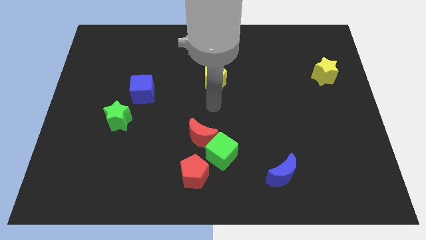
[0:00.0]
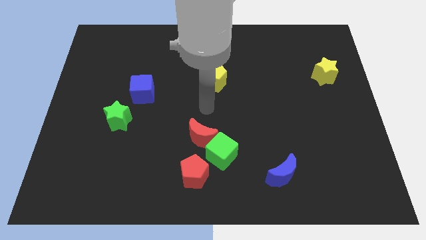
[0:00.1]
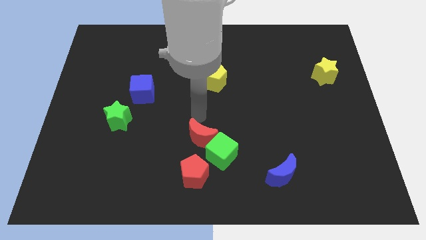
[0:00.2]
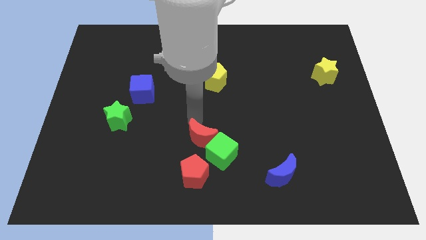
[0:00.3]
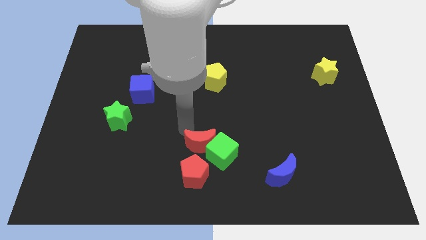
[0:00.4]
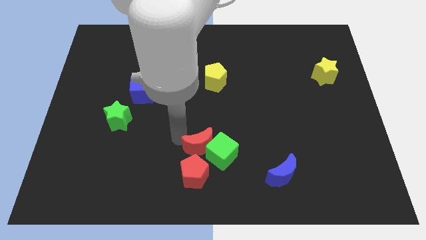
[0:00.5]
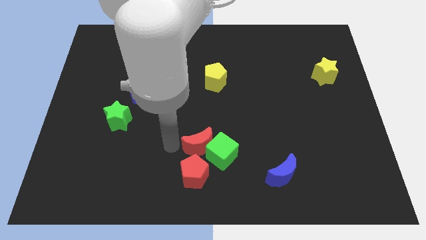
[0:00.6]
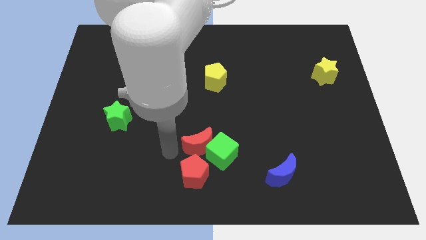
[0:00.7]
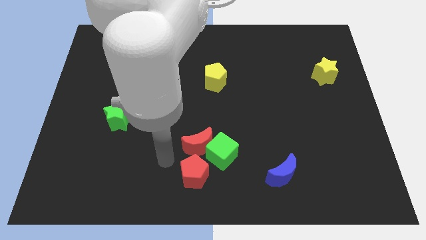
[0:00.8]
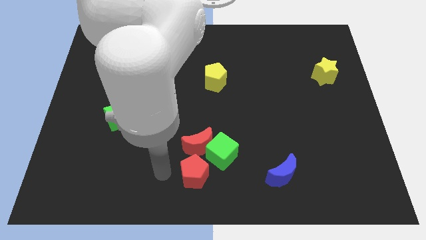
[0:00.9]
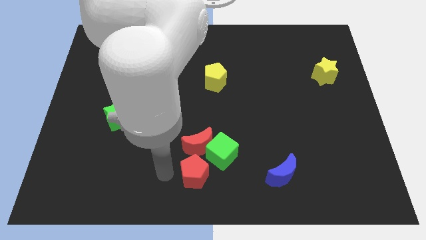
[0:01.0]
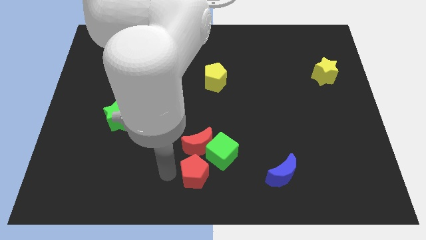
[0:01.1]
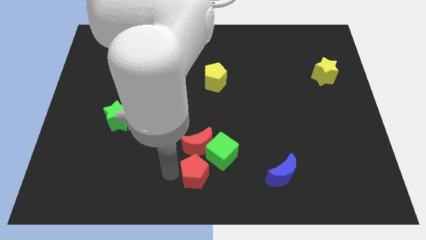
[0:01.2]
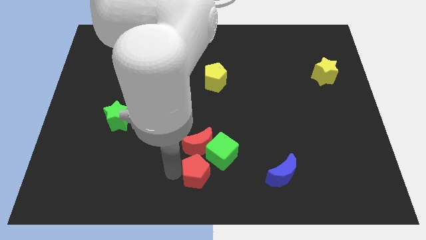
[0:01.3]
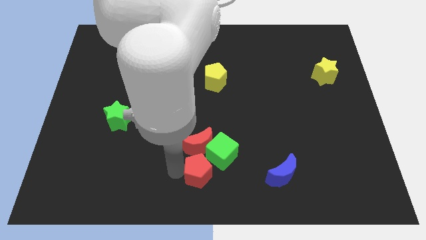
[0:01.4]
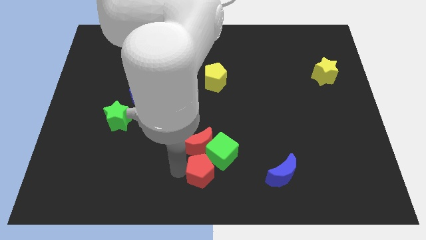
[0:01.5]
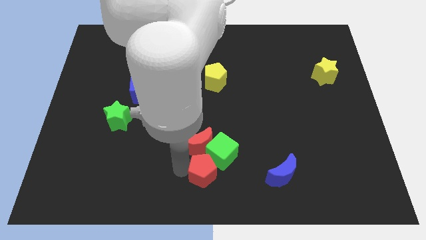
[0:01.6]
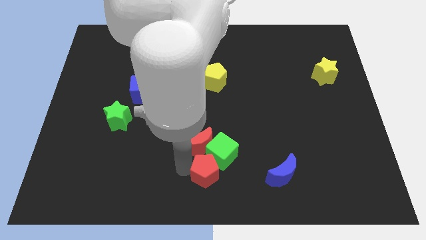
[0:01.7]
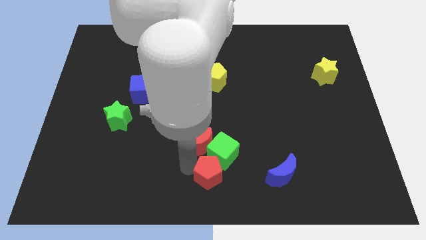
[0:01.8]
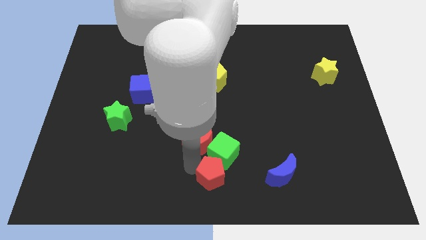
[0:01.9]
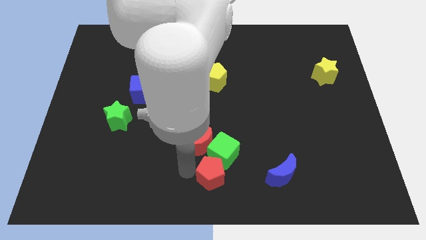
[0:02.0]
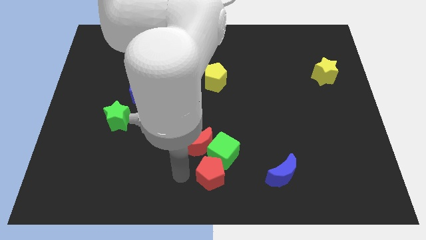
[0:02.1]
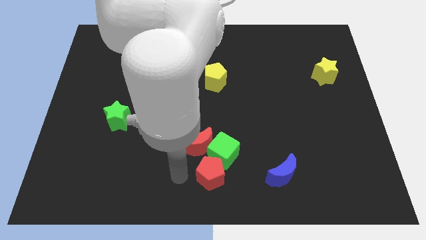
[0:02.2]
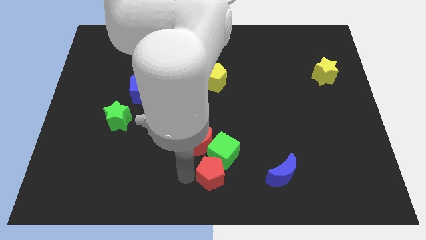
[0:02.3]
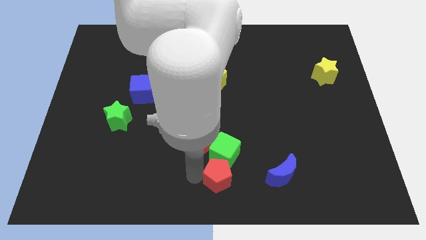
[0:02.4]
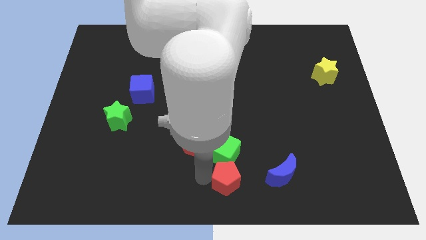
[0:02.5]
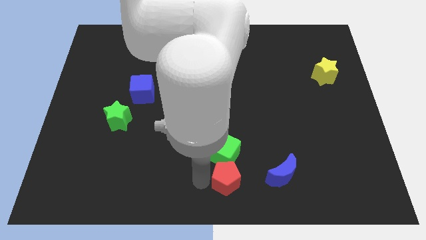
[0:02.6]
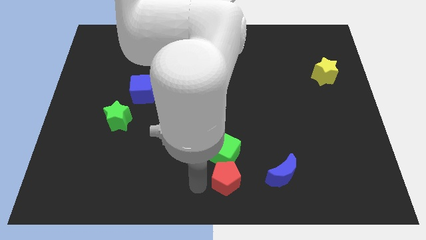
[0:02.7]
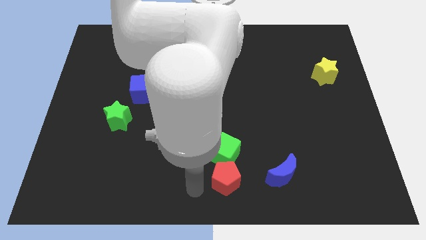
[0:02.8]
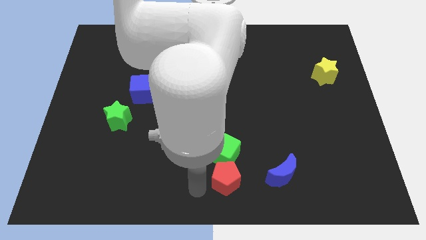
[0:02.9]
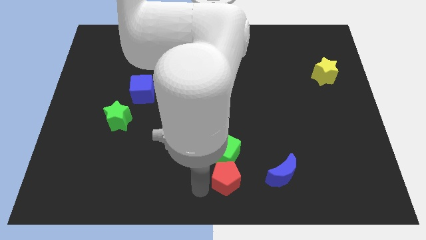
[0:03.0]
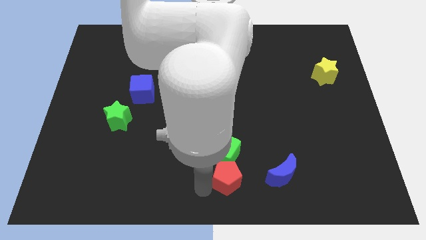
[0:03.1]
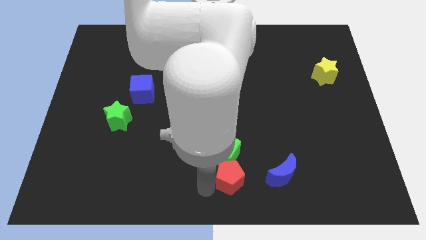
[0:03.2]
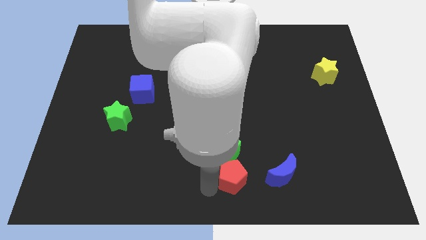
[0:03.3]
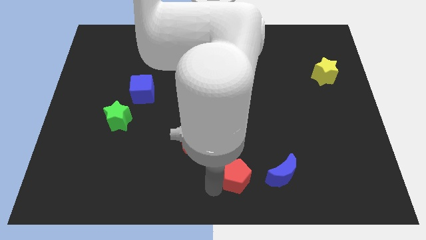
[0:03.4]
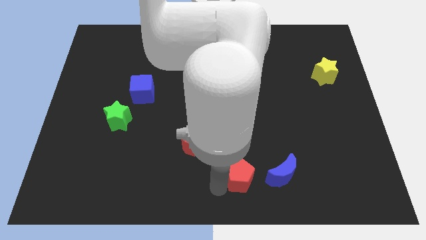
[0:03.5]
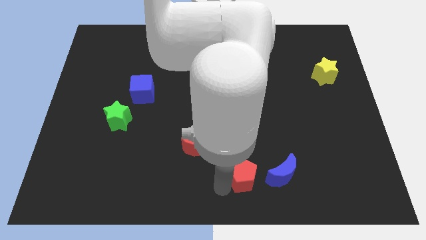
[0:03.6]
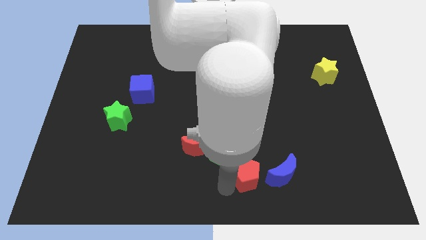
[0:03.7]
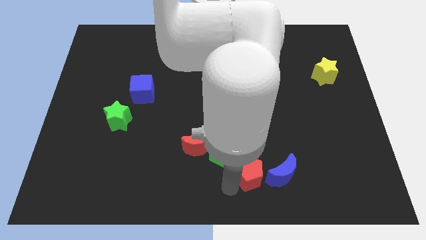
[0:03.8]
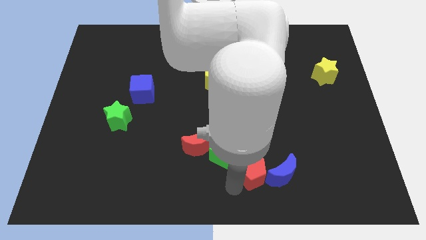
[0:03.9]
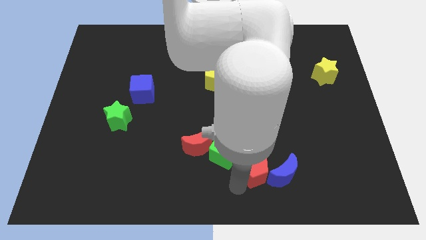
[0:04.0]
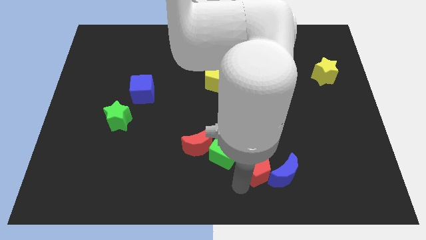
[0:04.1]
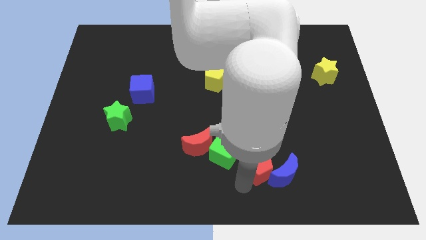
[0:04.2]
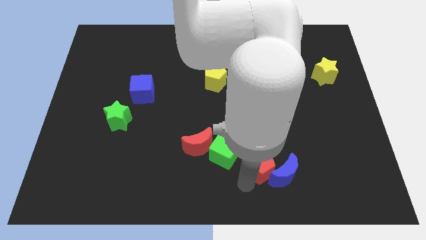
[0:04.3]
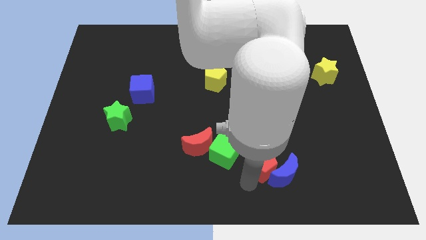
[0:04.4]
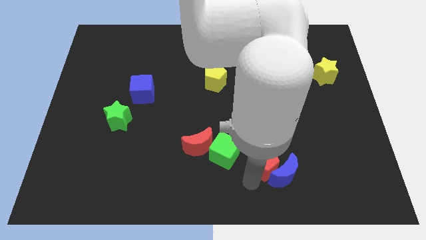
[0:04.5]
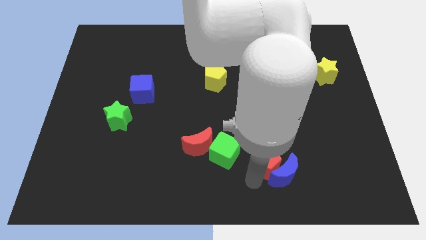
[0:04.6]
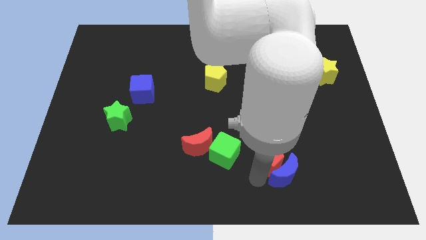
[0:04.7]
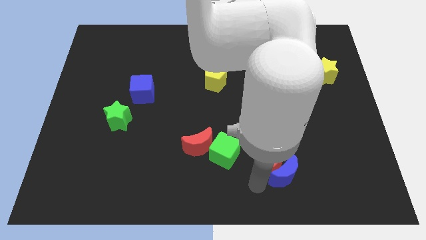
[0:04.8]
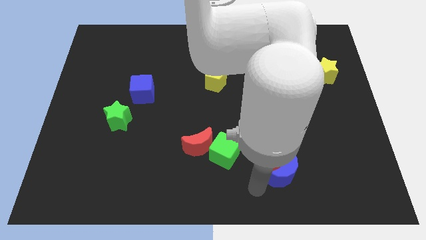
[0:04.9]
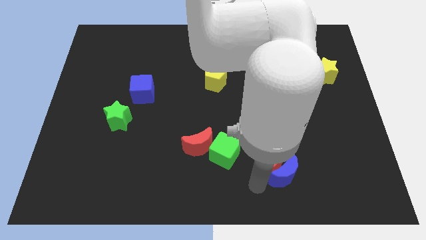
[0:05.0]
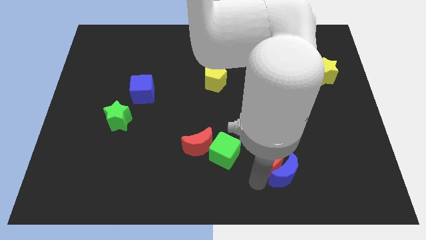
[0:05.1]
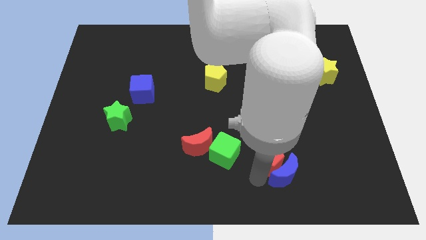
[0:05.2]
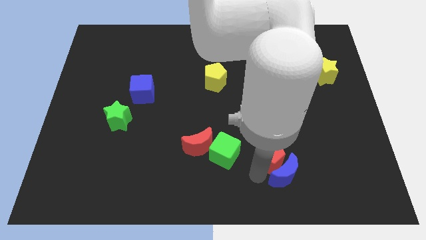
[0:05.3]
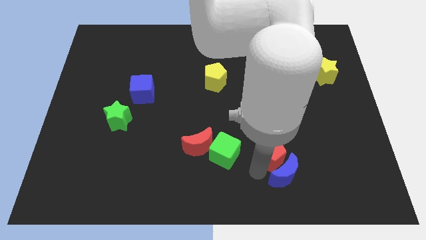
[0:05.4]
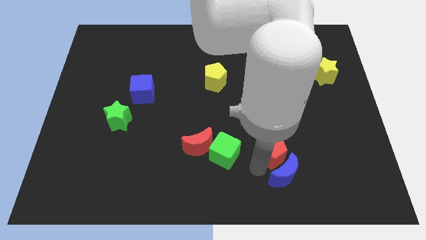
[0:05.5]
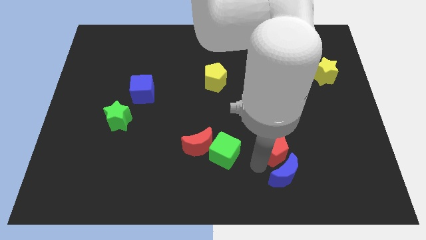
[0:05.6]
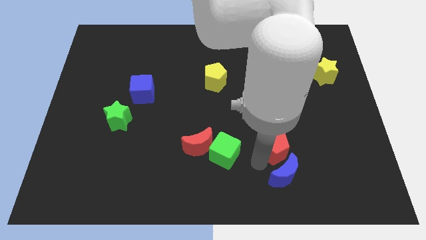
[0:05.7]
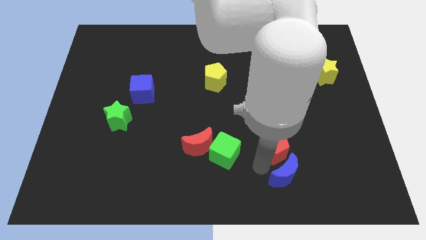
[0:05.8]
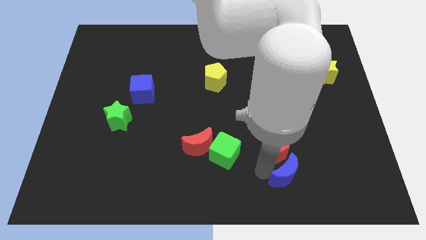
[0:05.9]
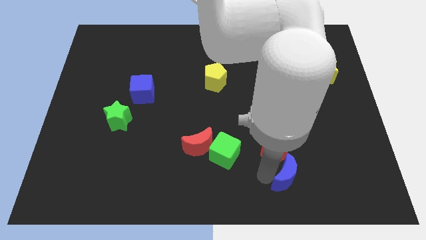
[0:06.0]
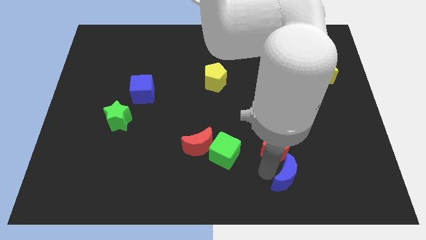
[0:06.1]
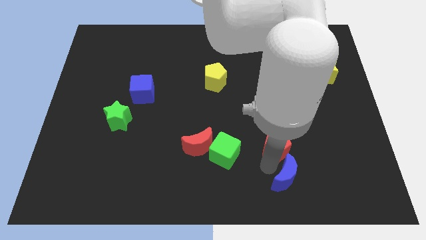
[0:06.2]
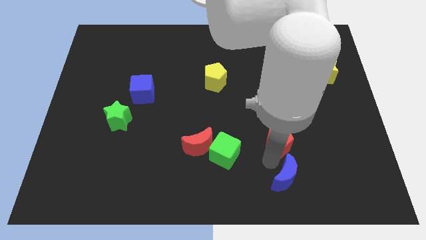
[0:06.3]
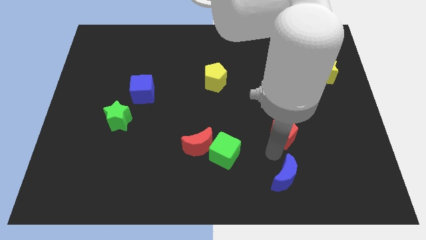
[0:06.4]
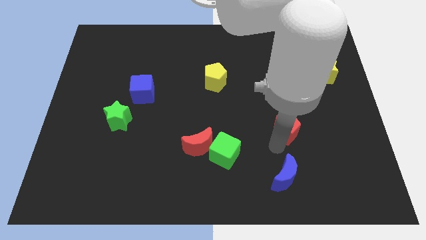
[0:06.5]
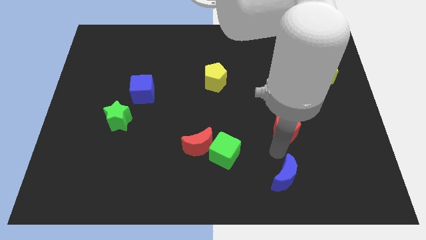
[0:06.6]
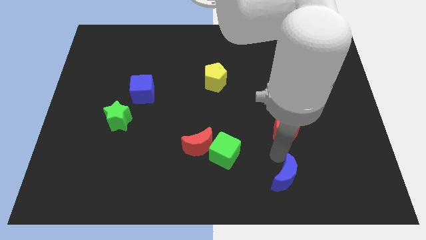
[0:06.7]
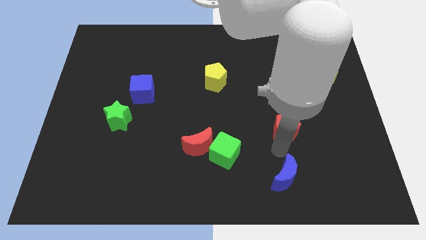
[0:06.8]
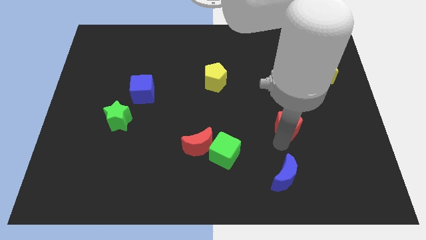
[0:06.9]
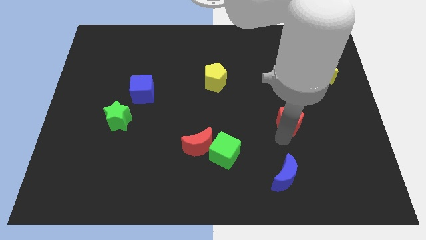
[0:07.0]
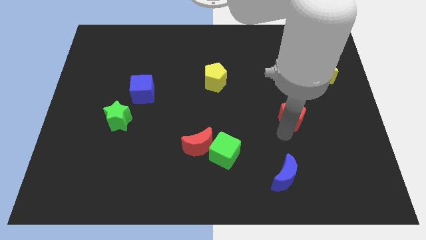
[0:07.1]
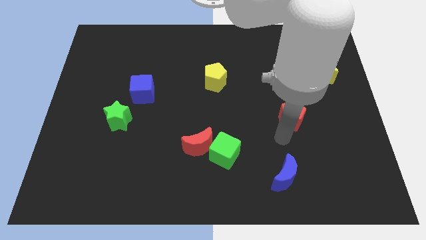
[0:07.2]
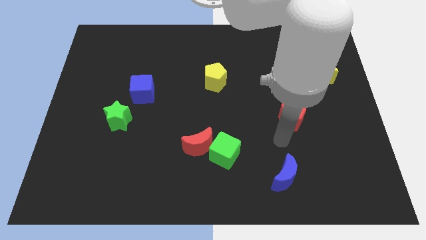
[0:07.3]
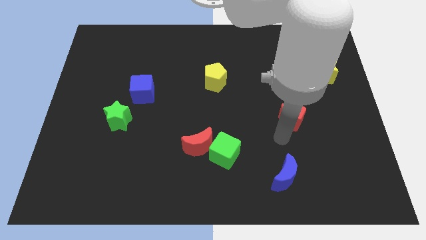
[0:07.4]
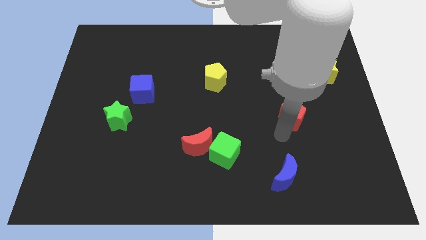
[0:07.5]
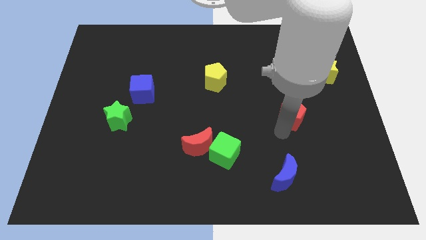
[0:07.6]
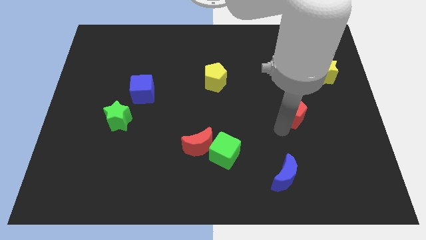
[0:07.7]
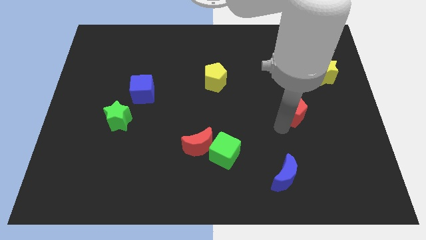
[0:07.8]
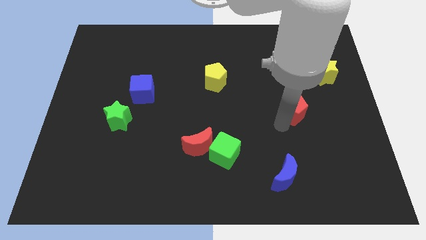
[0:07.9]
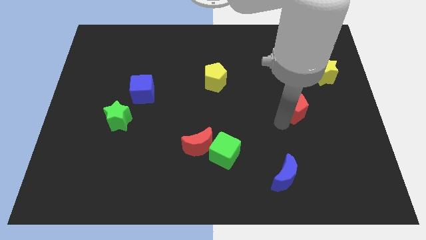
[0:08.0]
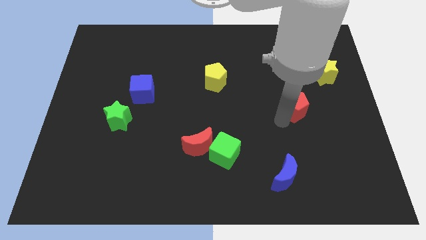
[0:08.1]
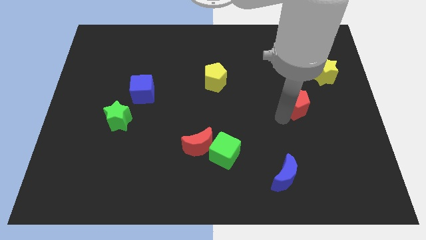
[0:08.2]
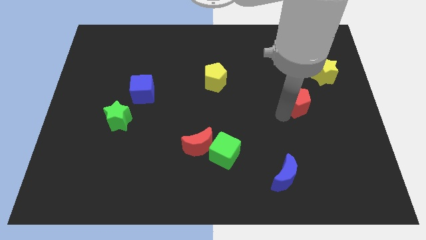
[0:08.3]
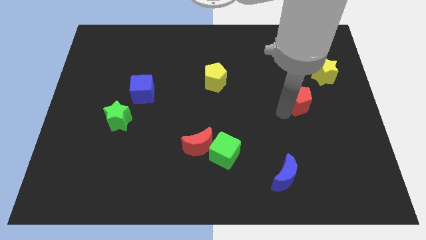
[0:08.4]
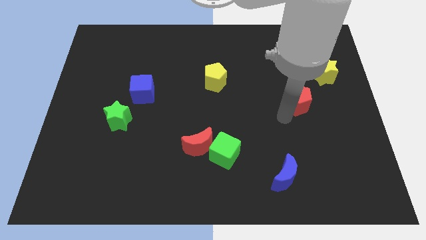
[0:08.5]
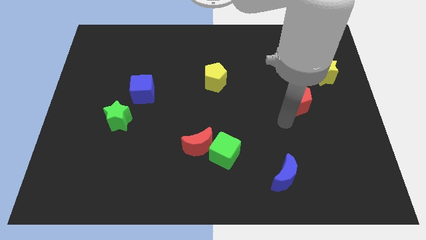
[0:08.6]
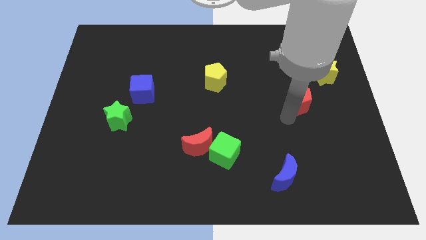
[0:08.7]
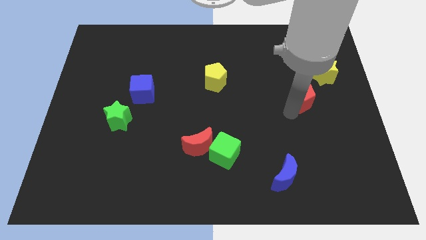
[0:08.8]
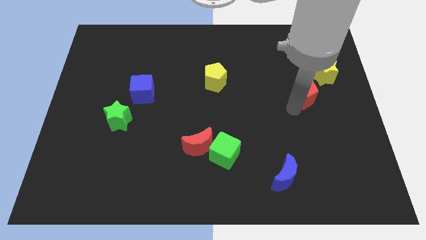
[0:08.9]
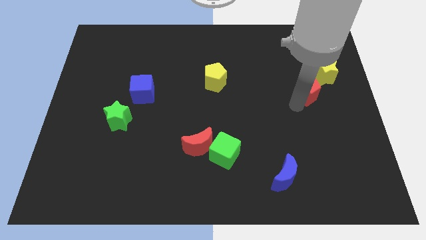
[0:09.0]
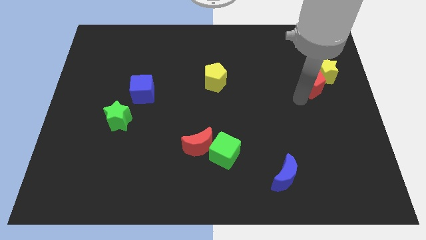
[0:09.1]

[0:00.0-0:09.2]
move the red pentagon next to the yellow star
